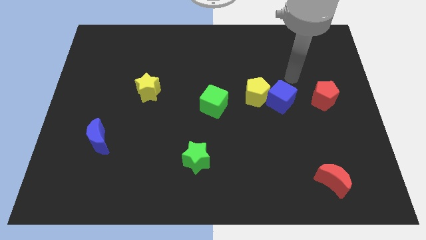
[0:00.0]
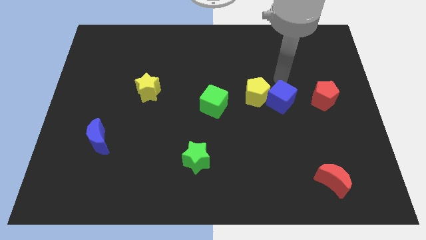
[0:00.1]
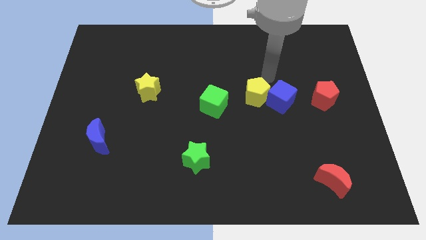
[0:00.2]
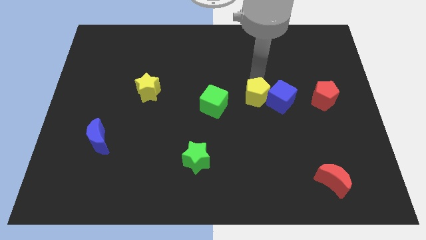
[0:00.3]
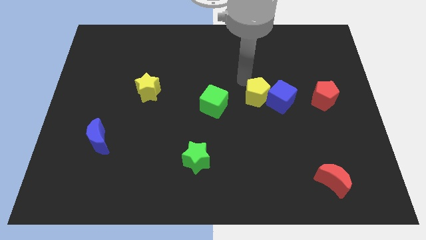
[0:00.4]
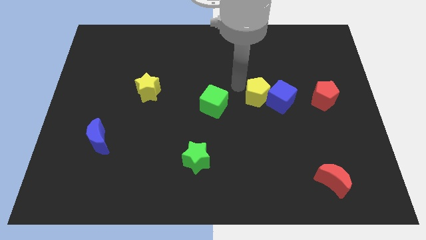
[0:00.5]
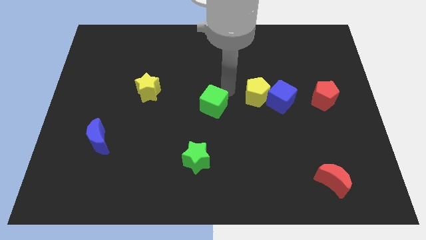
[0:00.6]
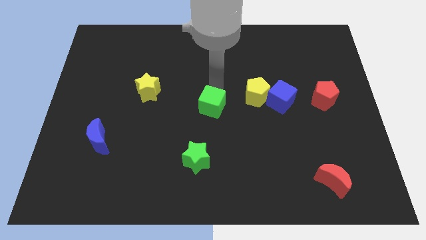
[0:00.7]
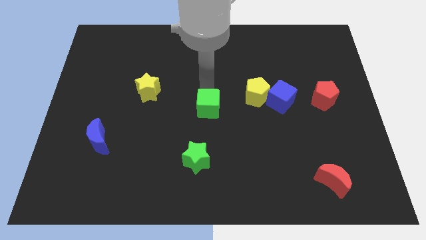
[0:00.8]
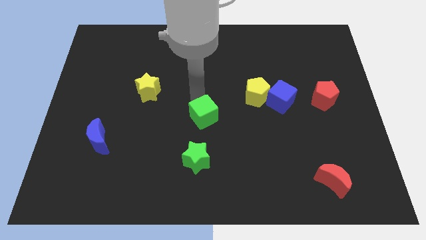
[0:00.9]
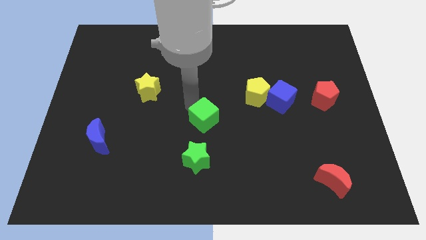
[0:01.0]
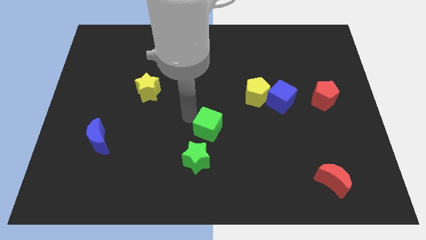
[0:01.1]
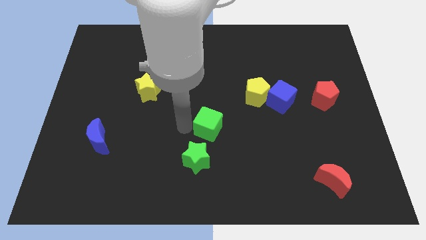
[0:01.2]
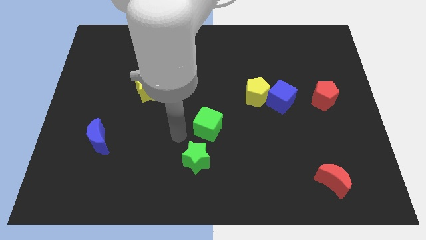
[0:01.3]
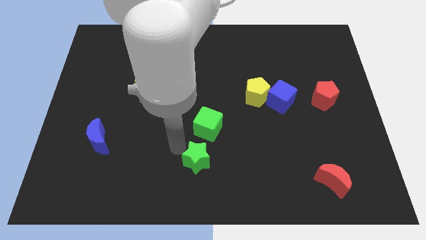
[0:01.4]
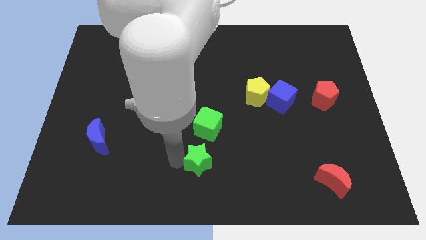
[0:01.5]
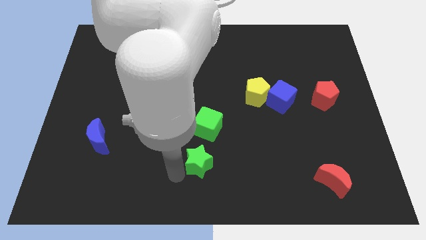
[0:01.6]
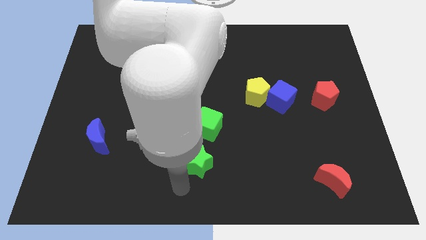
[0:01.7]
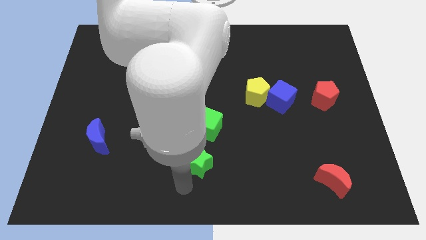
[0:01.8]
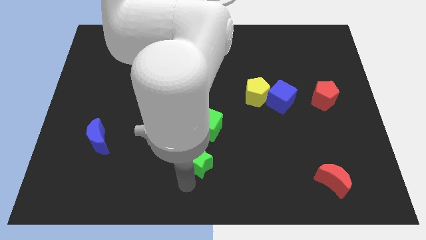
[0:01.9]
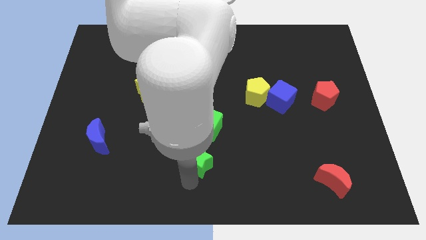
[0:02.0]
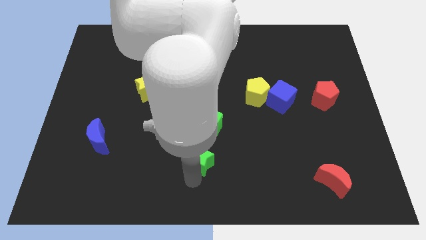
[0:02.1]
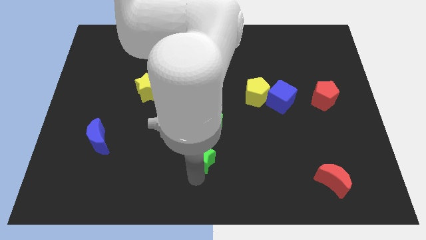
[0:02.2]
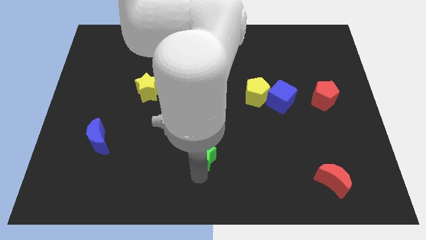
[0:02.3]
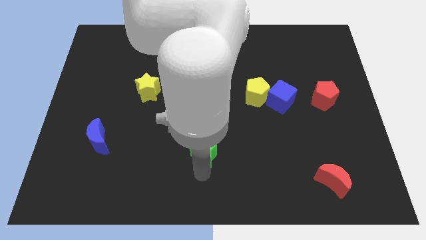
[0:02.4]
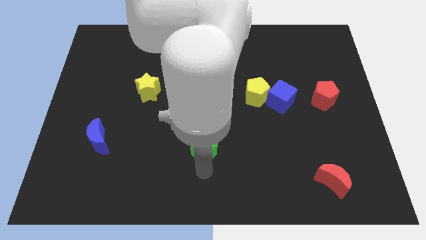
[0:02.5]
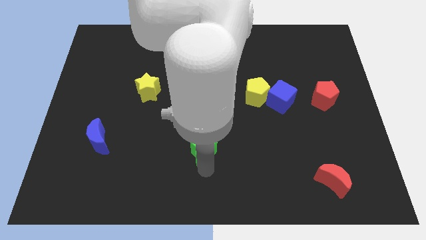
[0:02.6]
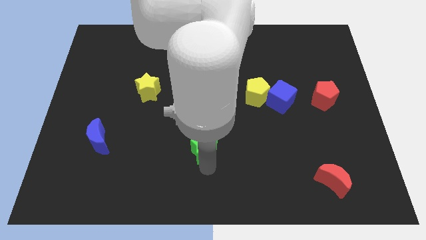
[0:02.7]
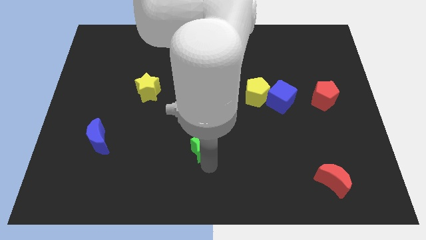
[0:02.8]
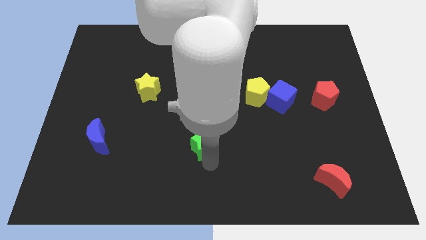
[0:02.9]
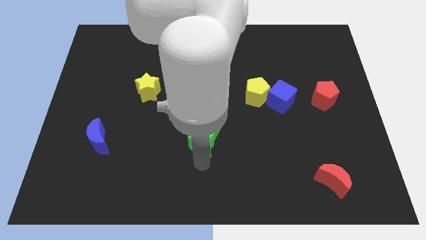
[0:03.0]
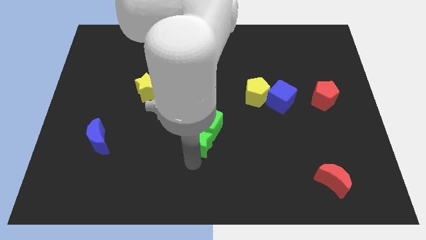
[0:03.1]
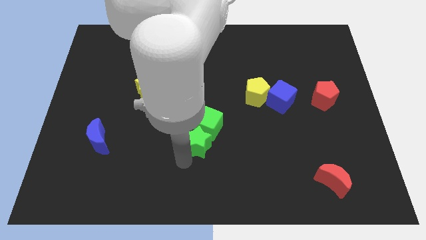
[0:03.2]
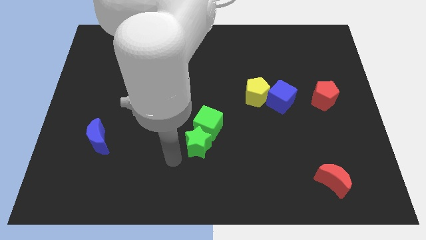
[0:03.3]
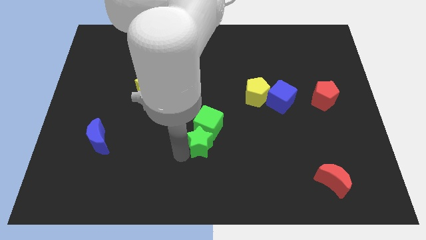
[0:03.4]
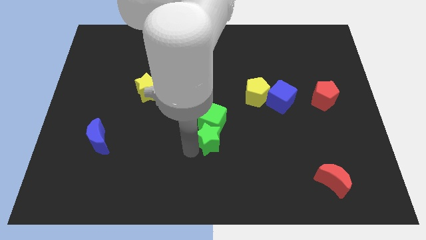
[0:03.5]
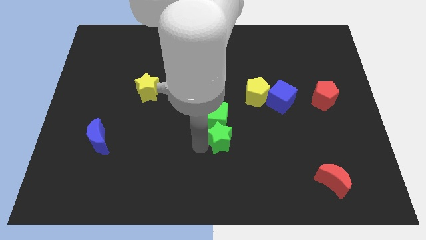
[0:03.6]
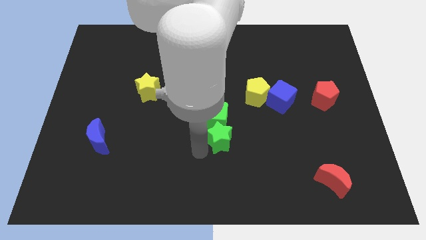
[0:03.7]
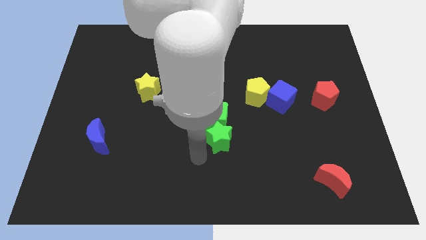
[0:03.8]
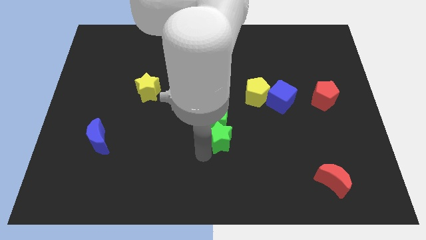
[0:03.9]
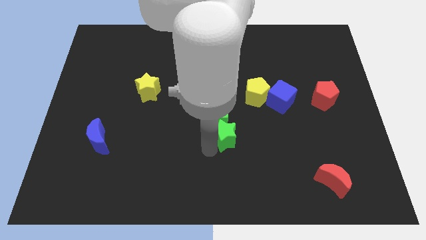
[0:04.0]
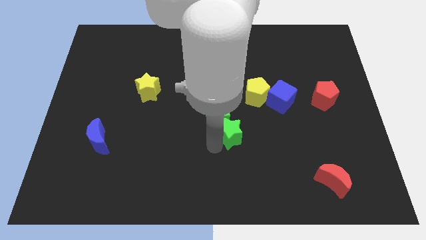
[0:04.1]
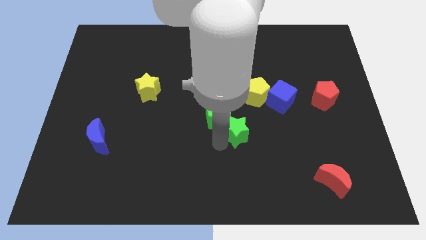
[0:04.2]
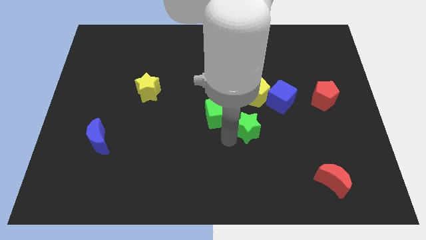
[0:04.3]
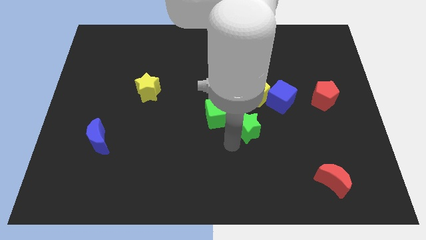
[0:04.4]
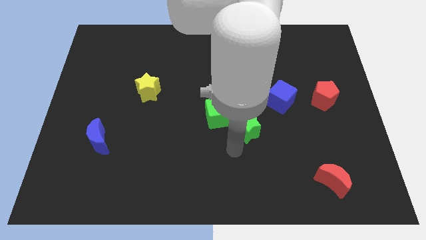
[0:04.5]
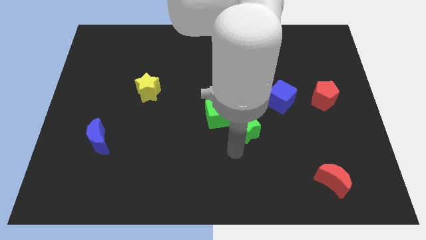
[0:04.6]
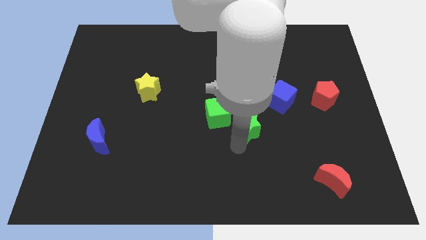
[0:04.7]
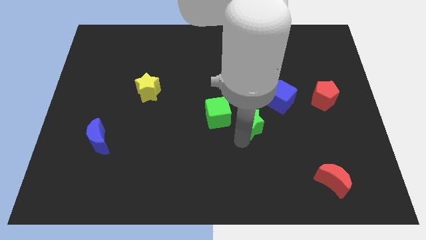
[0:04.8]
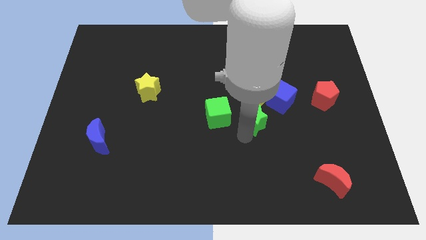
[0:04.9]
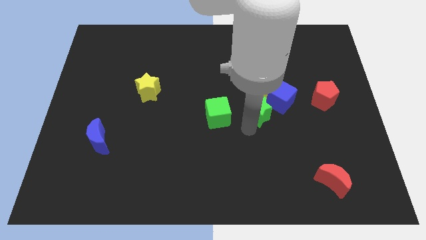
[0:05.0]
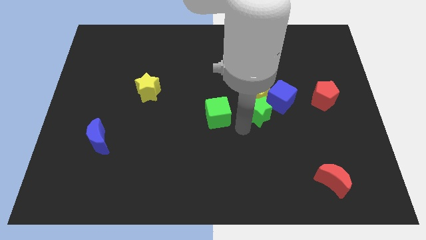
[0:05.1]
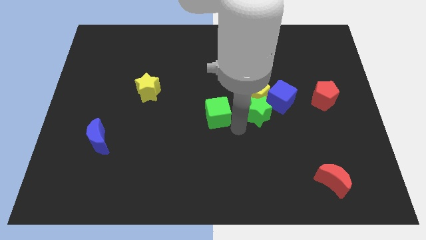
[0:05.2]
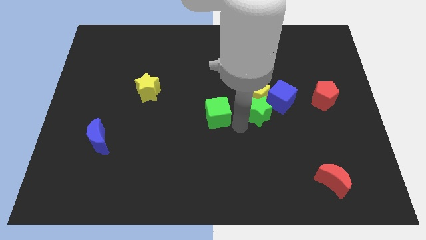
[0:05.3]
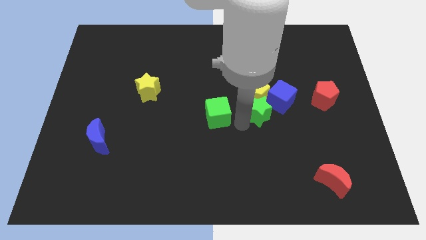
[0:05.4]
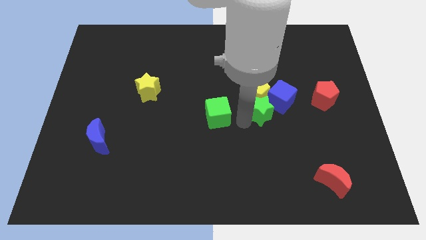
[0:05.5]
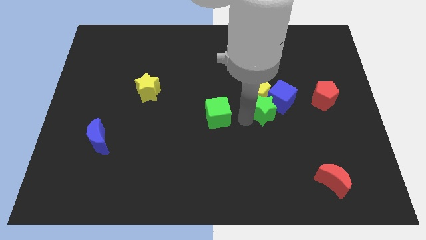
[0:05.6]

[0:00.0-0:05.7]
slide the green star towards the blue cube

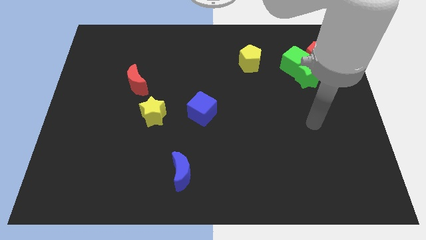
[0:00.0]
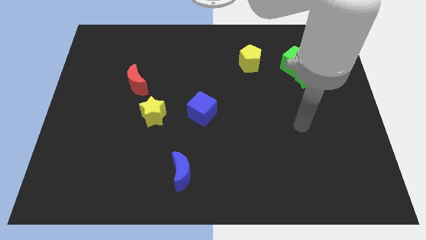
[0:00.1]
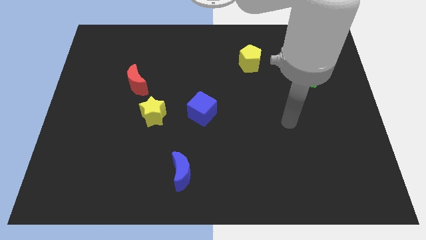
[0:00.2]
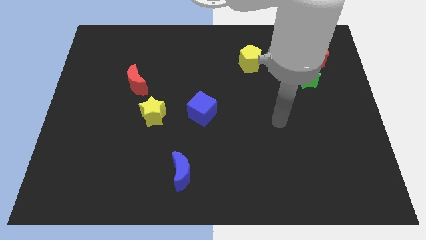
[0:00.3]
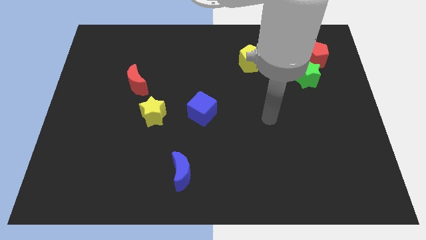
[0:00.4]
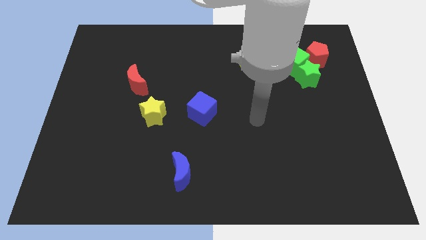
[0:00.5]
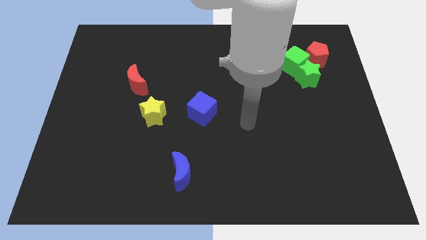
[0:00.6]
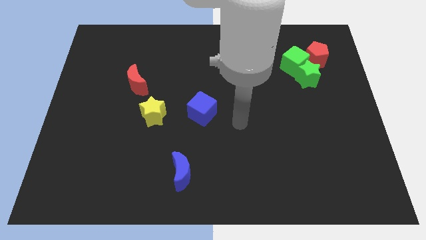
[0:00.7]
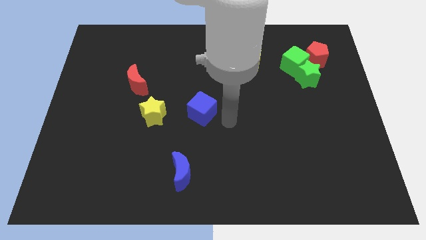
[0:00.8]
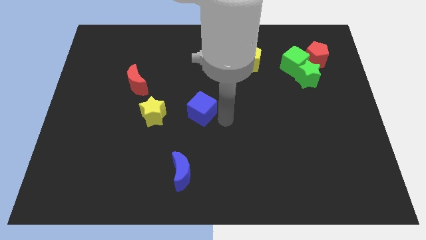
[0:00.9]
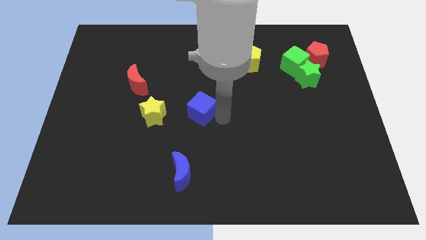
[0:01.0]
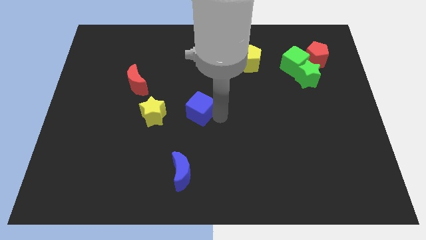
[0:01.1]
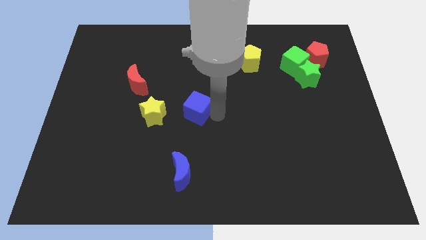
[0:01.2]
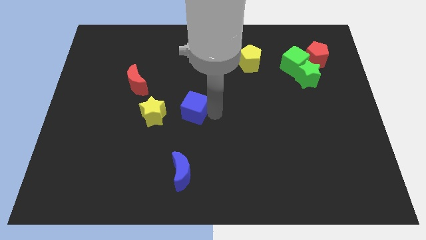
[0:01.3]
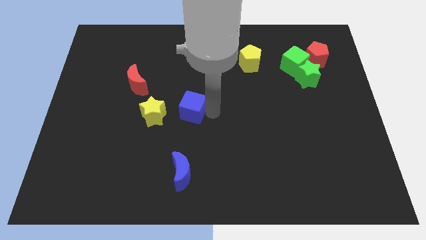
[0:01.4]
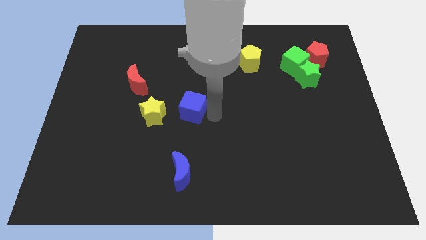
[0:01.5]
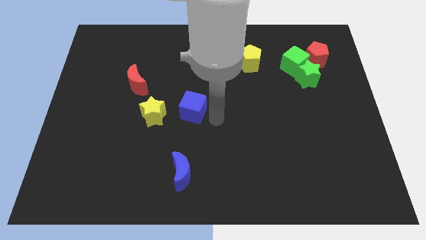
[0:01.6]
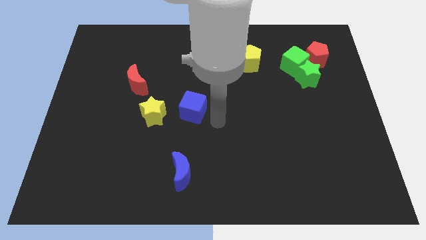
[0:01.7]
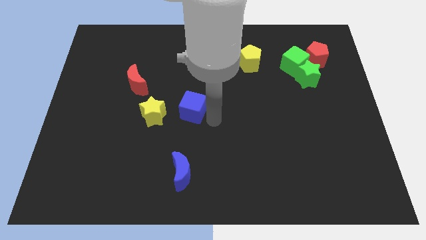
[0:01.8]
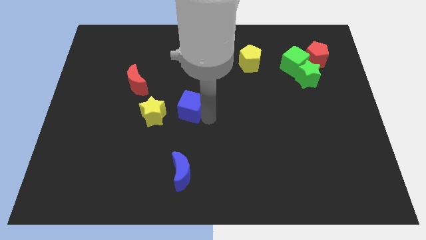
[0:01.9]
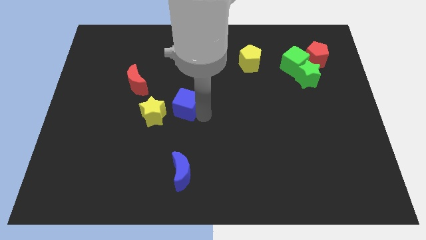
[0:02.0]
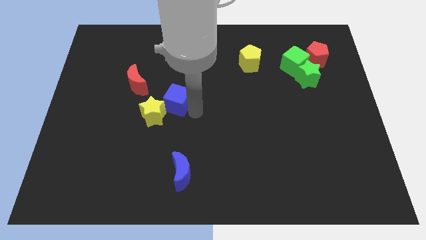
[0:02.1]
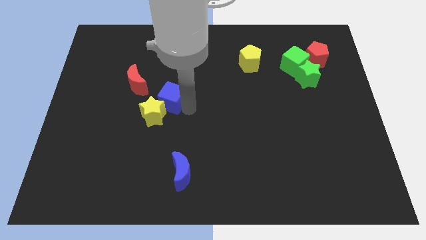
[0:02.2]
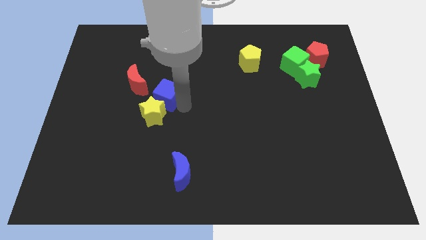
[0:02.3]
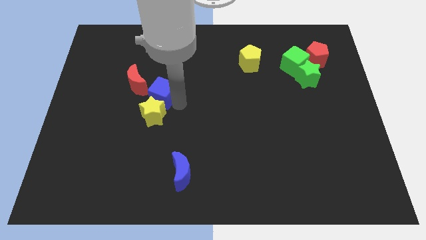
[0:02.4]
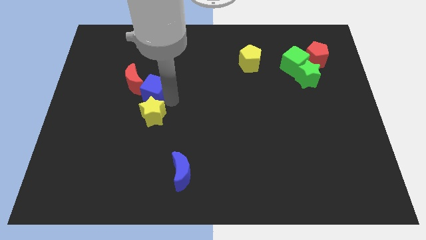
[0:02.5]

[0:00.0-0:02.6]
slide the blue cube close to the red moon
